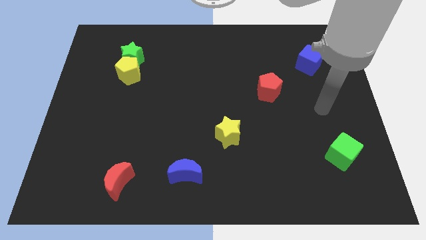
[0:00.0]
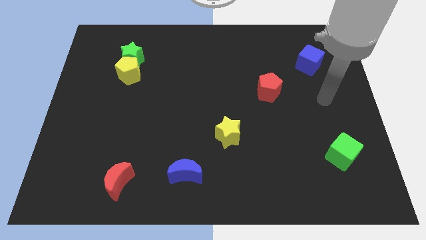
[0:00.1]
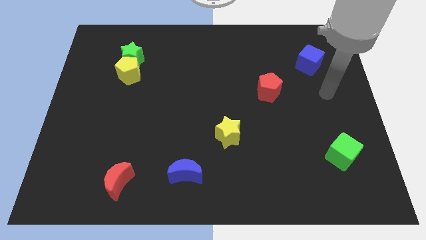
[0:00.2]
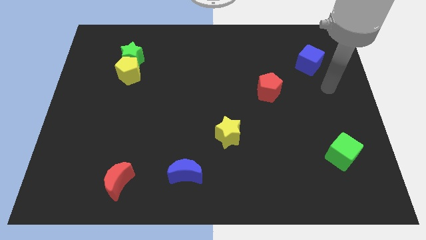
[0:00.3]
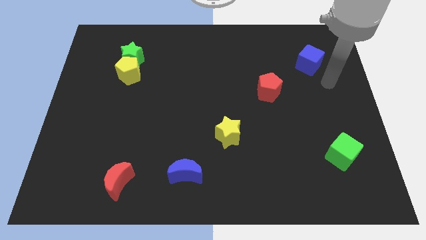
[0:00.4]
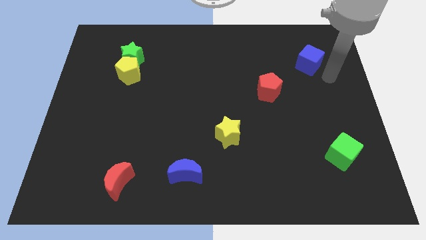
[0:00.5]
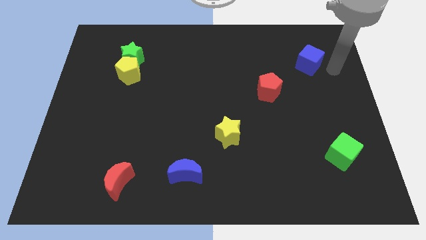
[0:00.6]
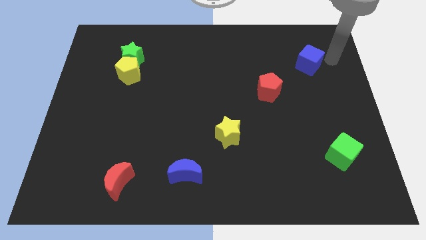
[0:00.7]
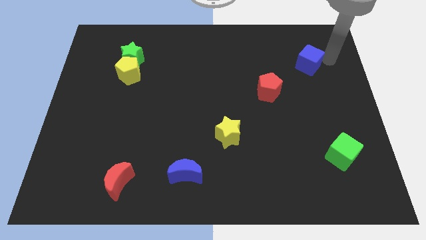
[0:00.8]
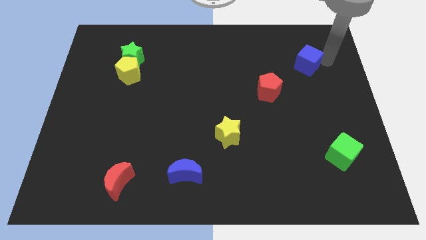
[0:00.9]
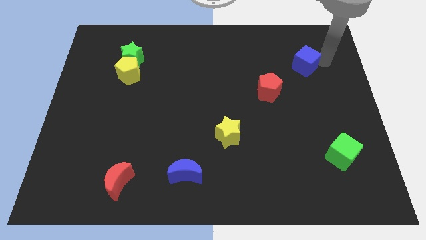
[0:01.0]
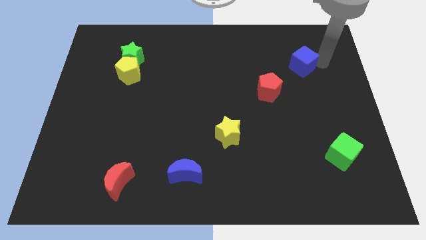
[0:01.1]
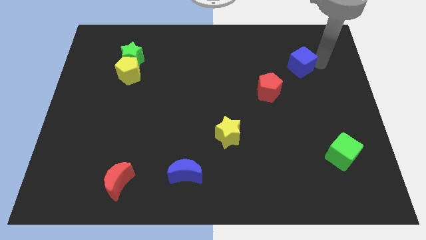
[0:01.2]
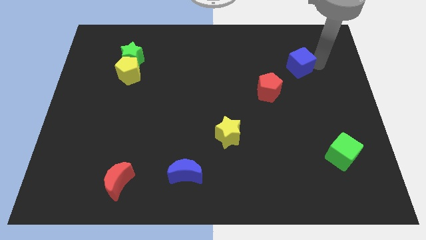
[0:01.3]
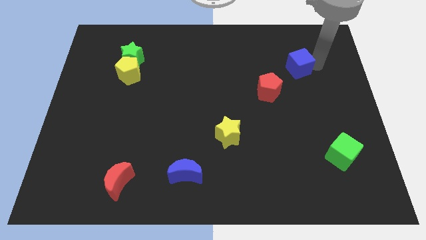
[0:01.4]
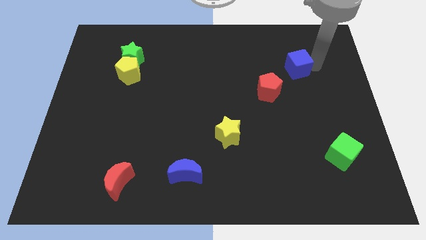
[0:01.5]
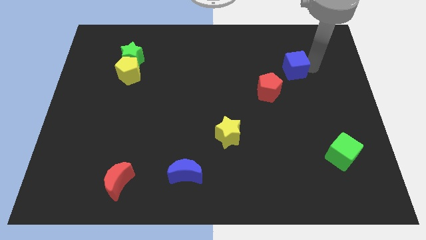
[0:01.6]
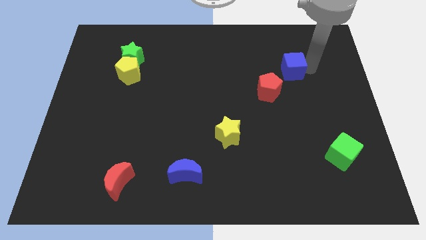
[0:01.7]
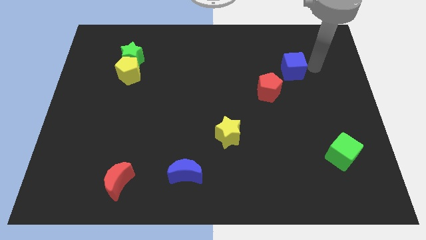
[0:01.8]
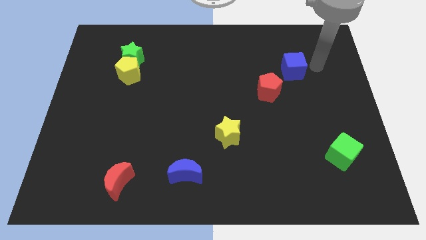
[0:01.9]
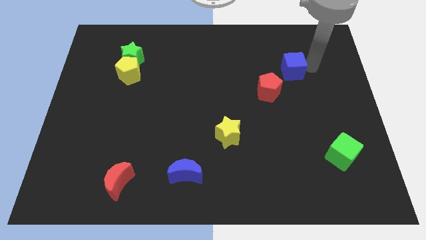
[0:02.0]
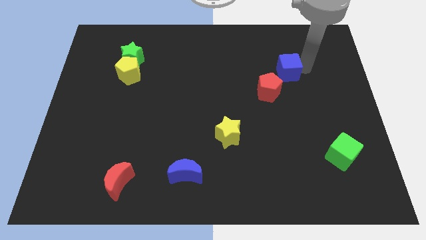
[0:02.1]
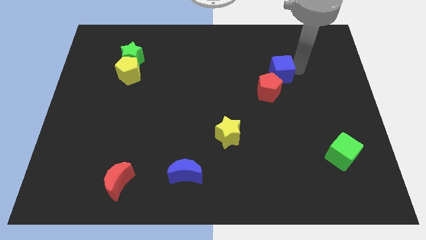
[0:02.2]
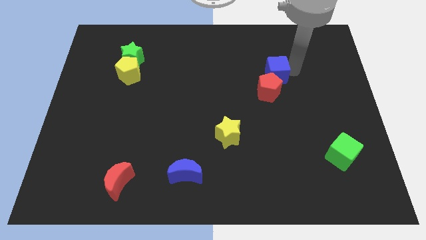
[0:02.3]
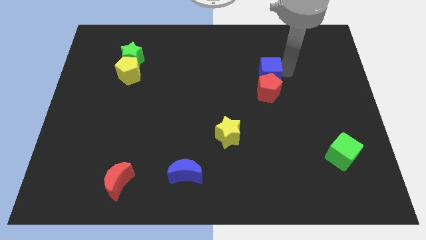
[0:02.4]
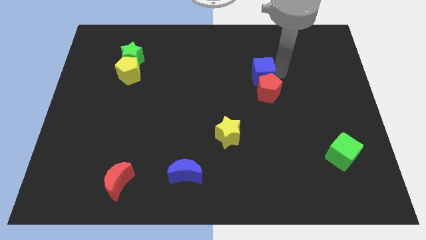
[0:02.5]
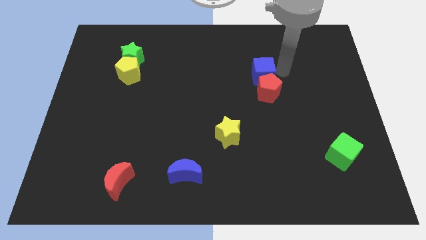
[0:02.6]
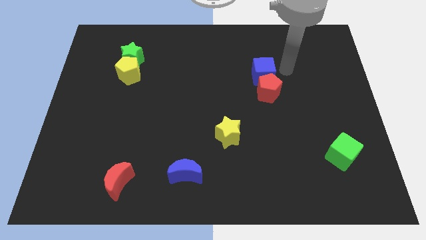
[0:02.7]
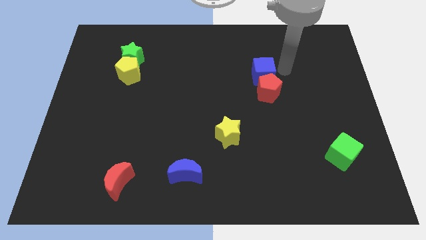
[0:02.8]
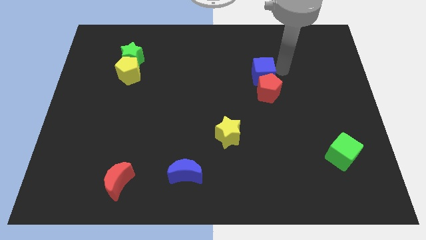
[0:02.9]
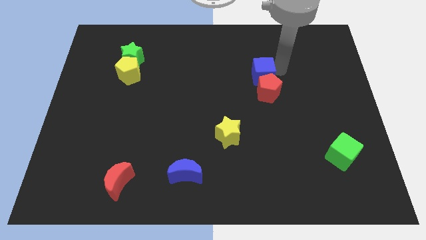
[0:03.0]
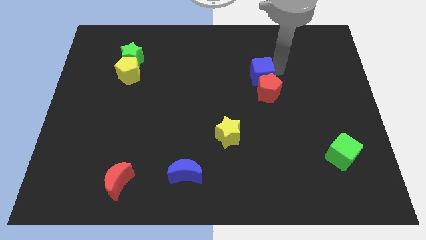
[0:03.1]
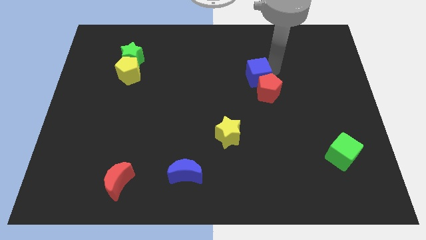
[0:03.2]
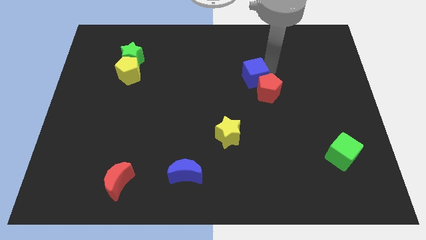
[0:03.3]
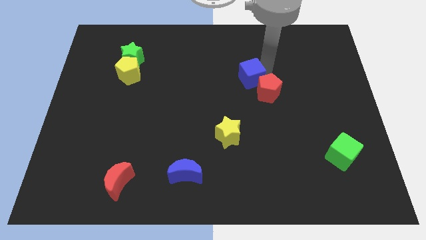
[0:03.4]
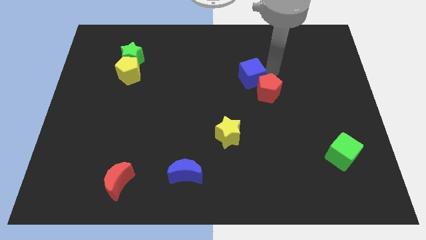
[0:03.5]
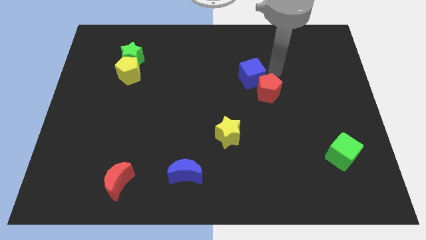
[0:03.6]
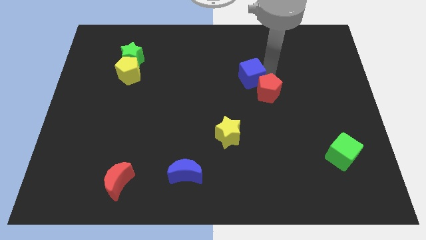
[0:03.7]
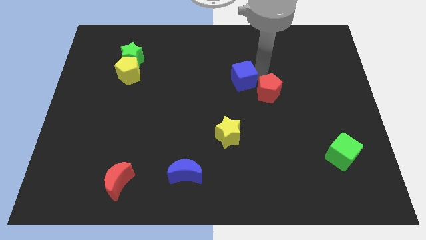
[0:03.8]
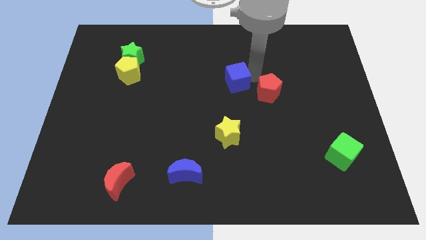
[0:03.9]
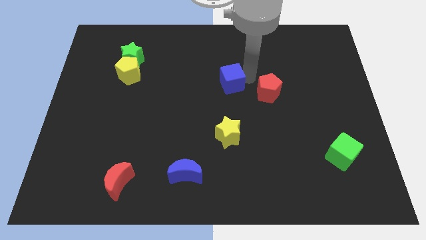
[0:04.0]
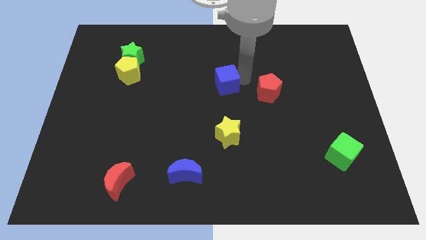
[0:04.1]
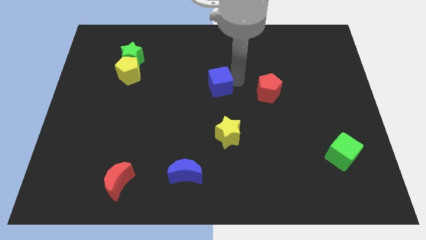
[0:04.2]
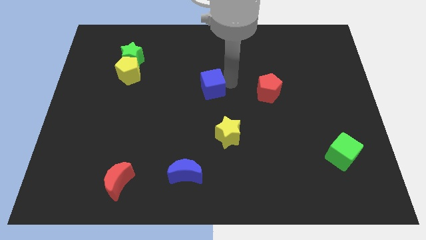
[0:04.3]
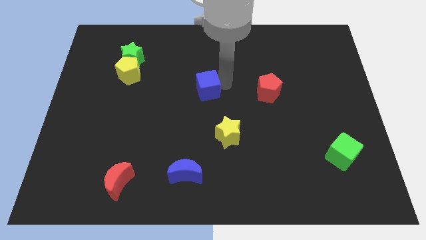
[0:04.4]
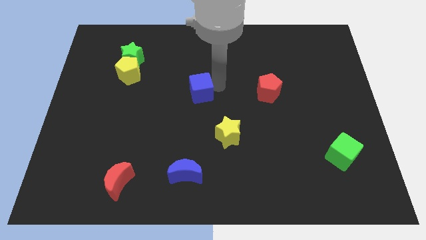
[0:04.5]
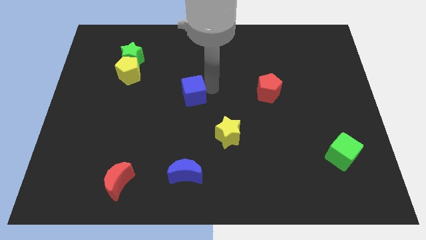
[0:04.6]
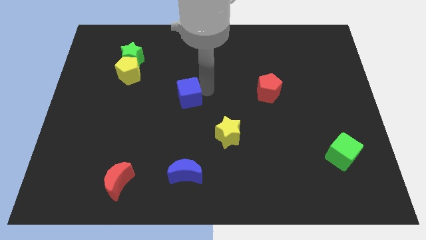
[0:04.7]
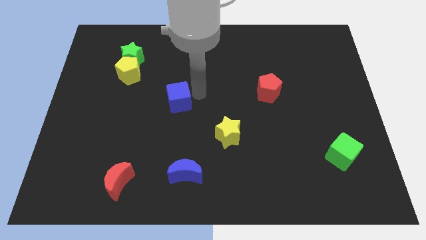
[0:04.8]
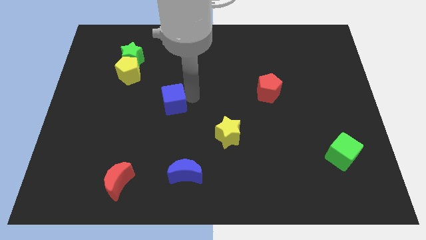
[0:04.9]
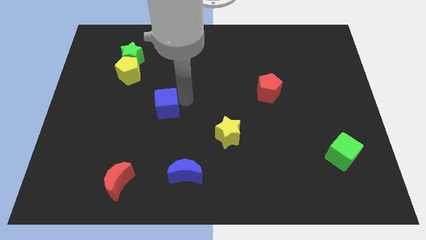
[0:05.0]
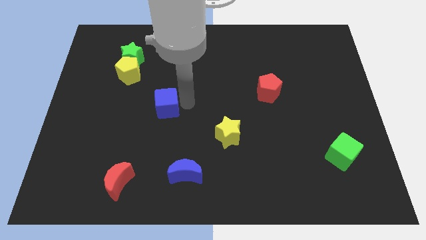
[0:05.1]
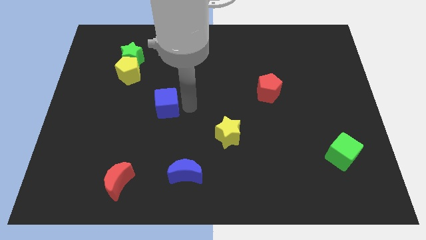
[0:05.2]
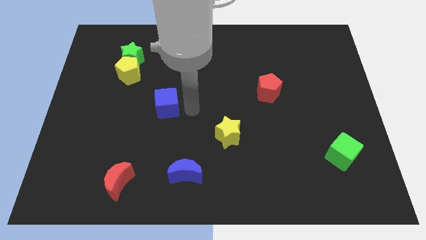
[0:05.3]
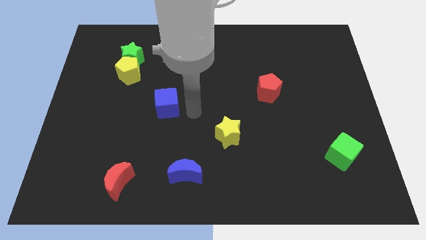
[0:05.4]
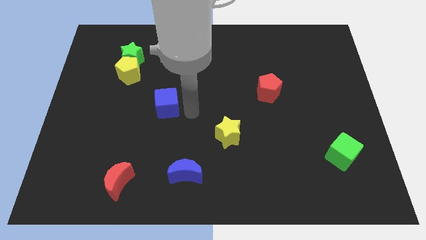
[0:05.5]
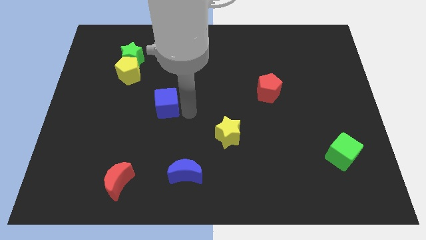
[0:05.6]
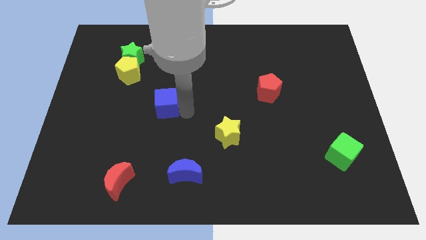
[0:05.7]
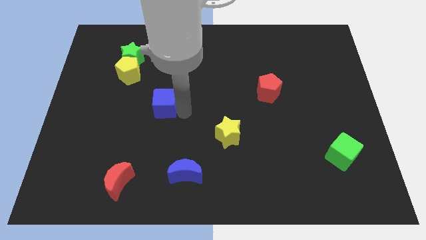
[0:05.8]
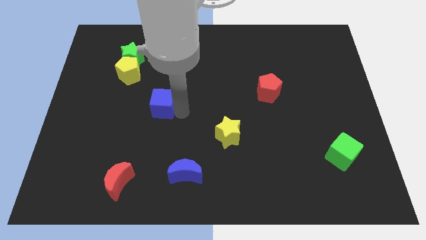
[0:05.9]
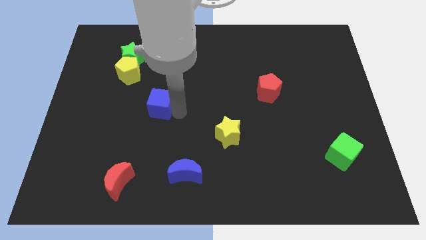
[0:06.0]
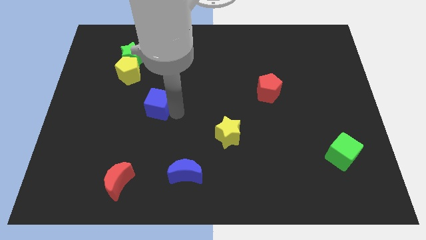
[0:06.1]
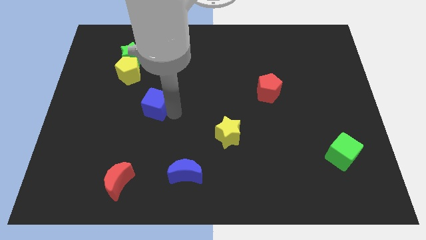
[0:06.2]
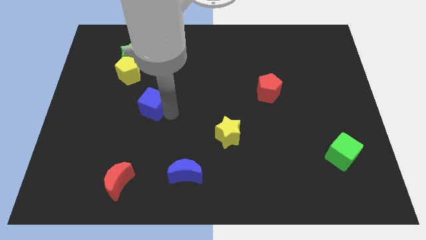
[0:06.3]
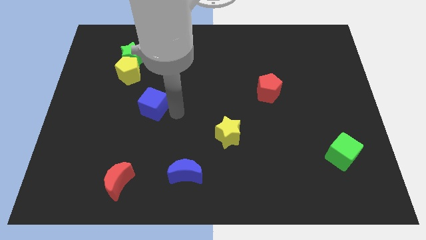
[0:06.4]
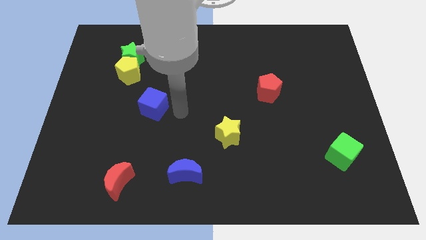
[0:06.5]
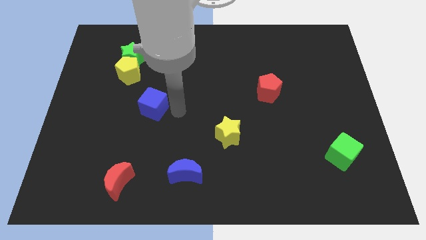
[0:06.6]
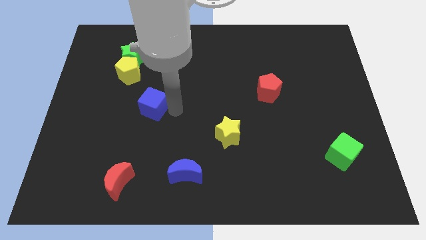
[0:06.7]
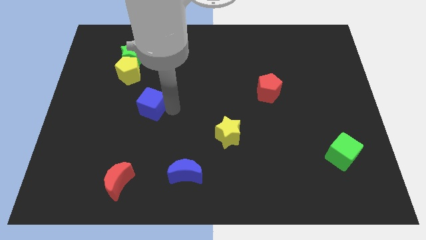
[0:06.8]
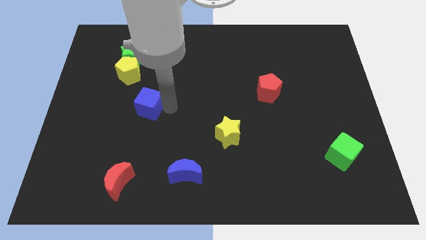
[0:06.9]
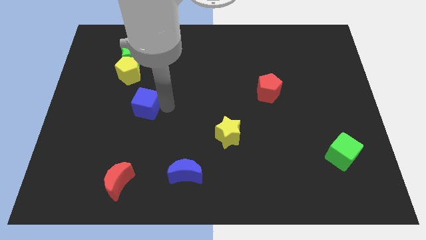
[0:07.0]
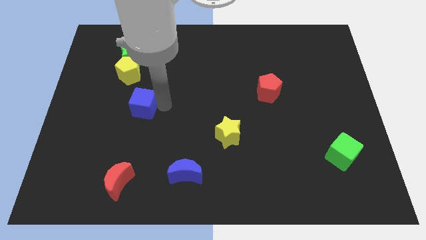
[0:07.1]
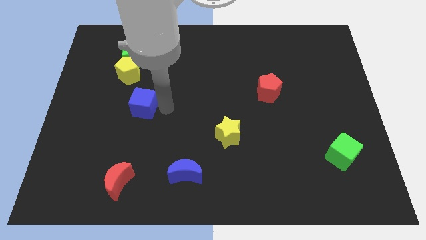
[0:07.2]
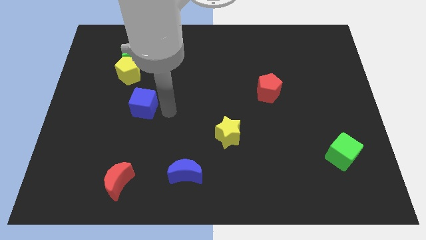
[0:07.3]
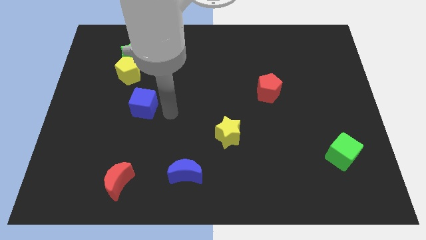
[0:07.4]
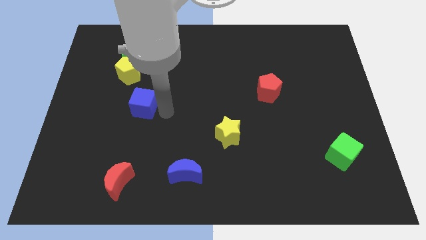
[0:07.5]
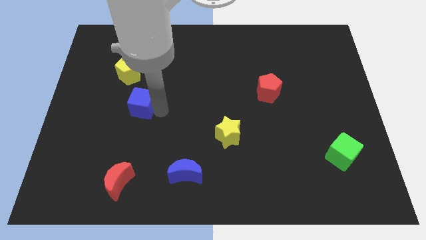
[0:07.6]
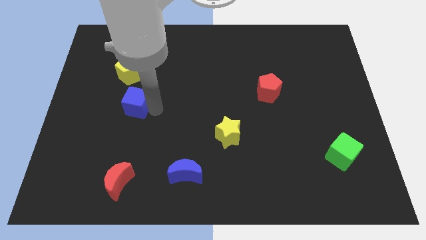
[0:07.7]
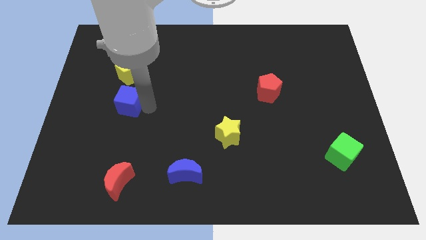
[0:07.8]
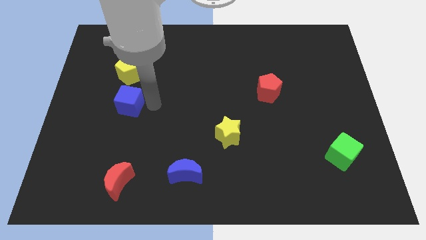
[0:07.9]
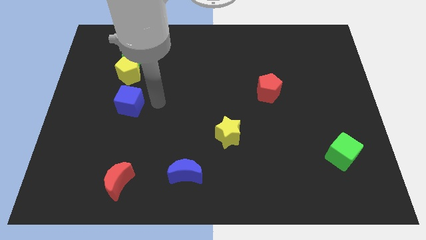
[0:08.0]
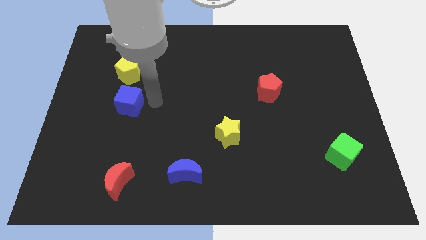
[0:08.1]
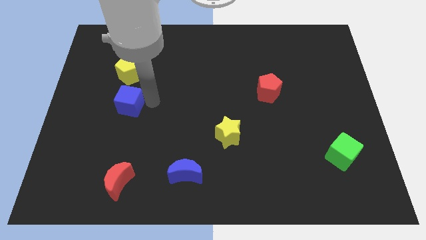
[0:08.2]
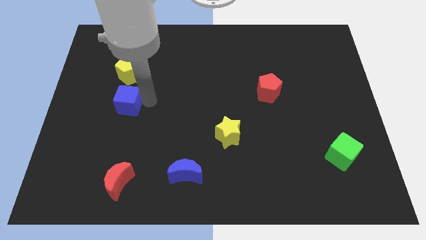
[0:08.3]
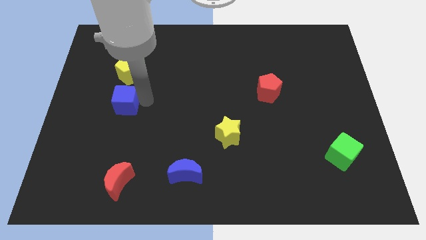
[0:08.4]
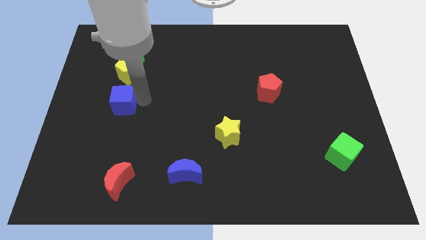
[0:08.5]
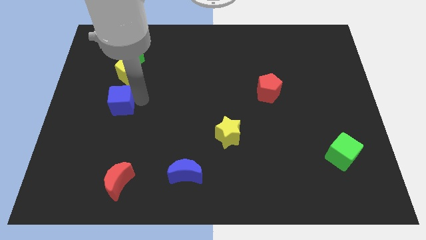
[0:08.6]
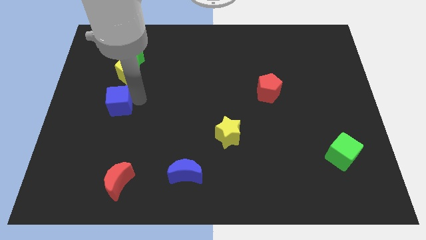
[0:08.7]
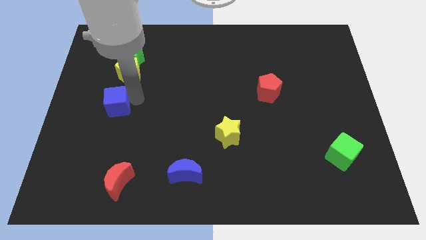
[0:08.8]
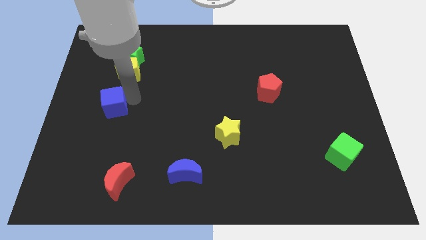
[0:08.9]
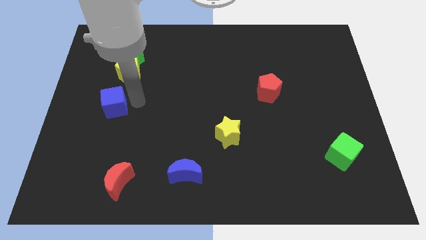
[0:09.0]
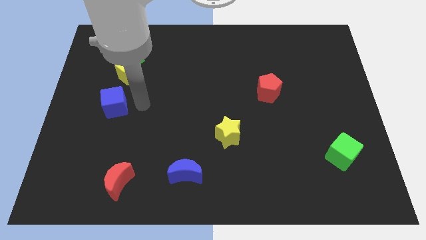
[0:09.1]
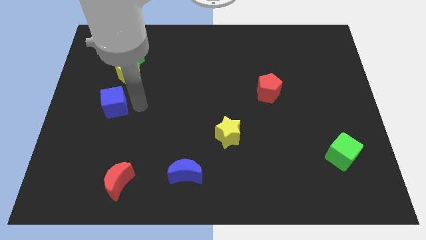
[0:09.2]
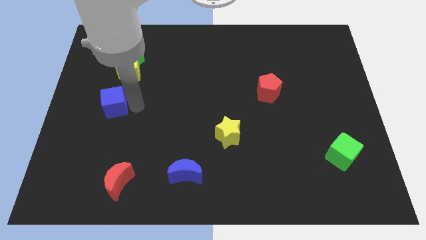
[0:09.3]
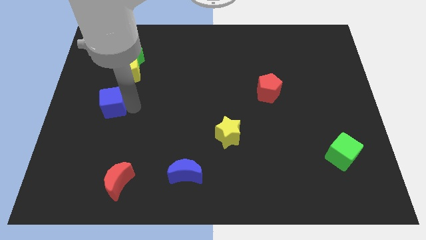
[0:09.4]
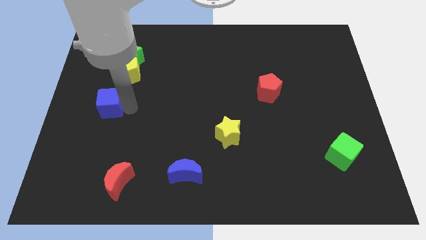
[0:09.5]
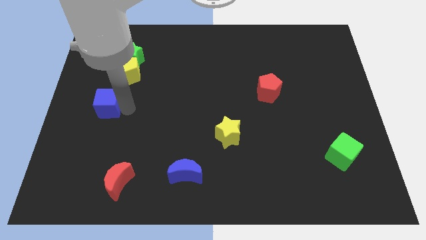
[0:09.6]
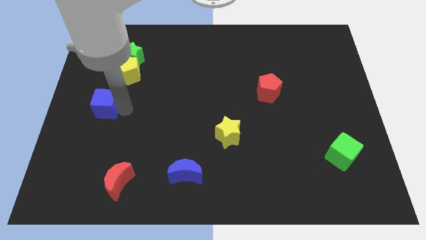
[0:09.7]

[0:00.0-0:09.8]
put the blue cube to the center left
